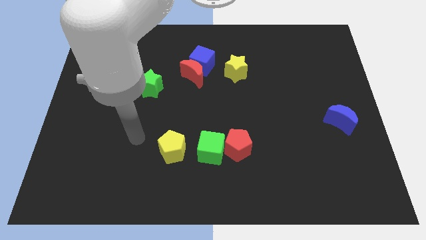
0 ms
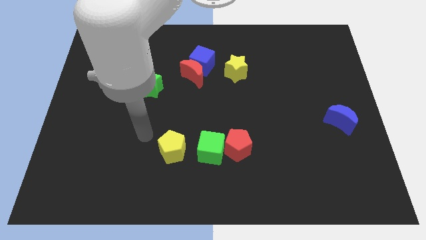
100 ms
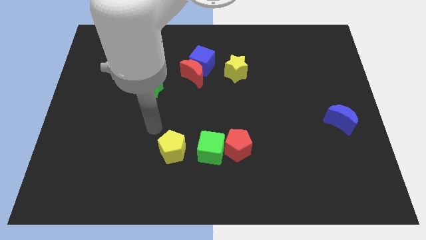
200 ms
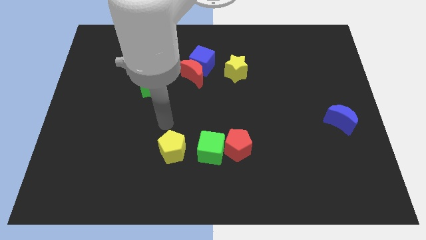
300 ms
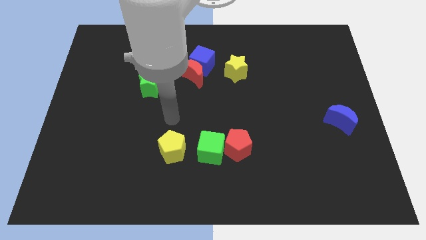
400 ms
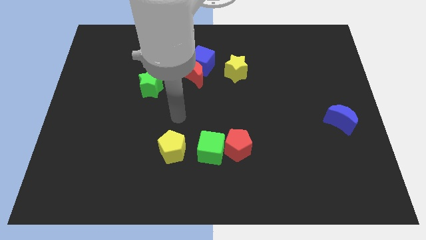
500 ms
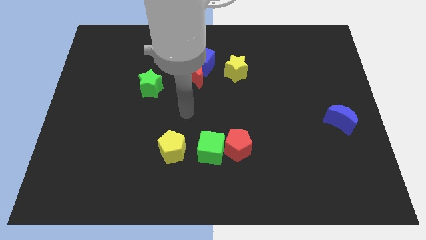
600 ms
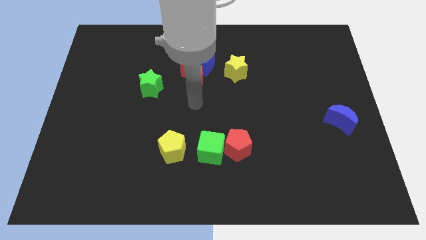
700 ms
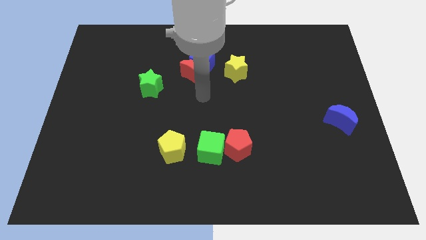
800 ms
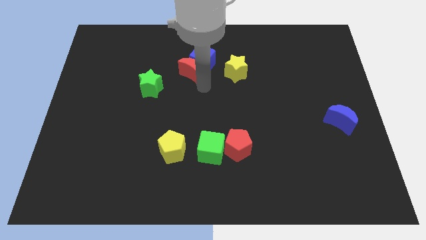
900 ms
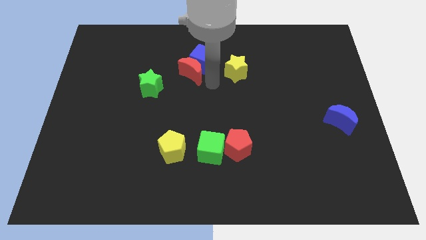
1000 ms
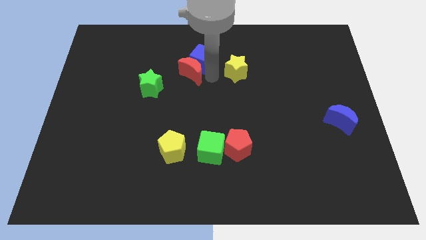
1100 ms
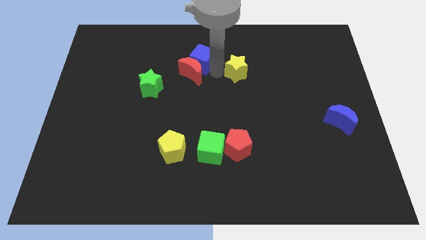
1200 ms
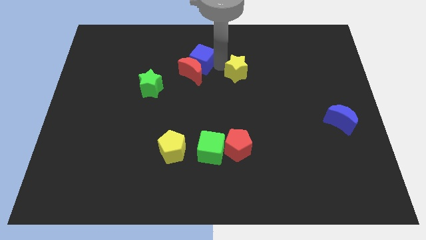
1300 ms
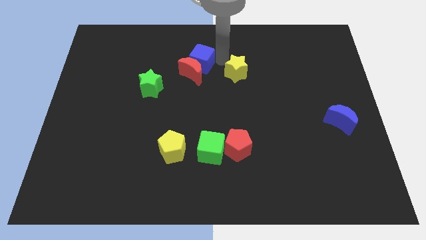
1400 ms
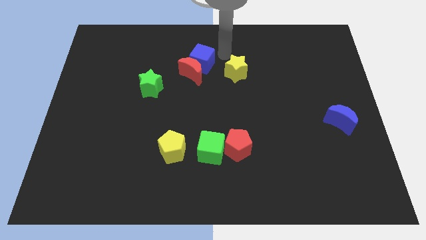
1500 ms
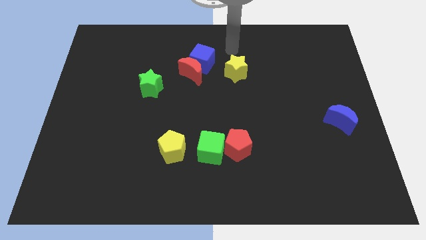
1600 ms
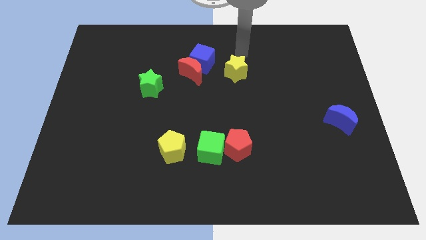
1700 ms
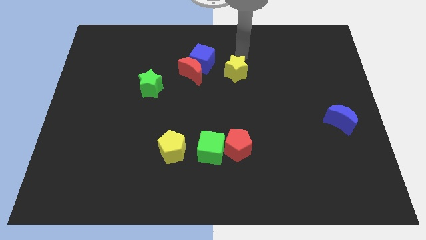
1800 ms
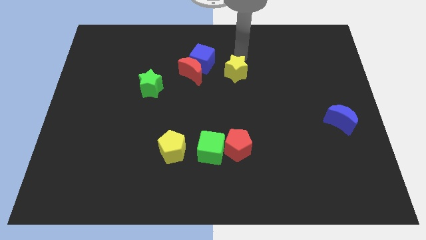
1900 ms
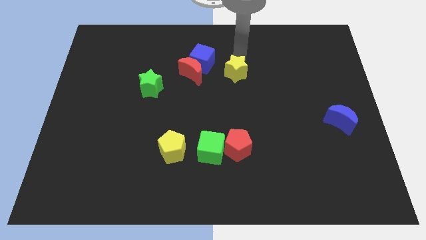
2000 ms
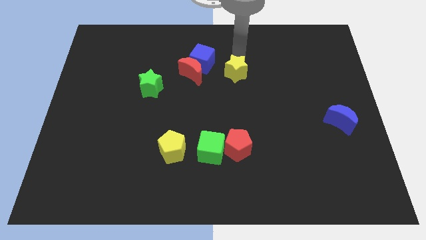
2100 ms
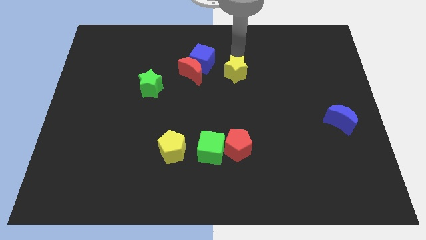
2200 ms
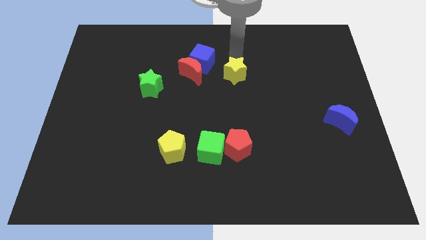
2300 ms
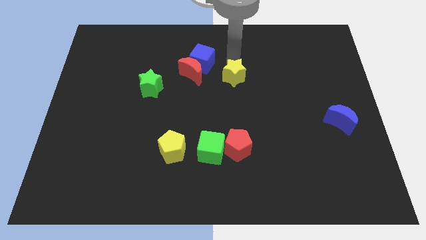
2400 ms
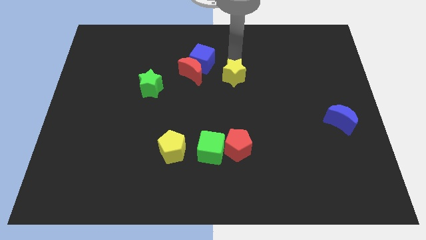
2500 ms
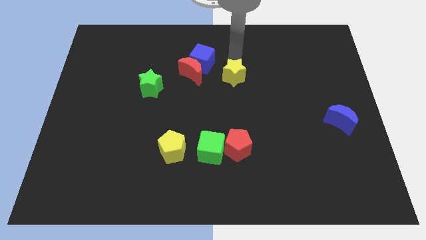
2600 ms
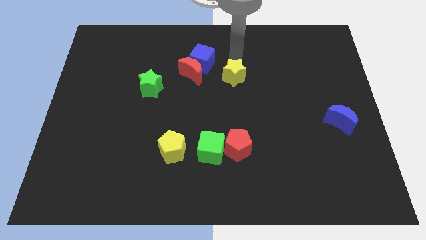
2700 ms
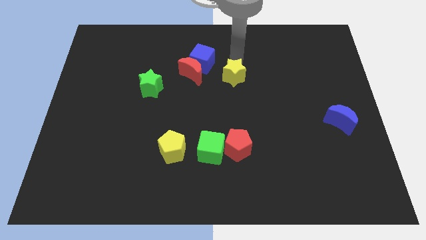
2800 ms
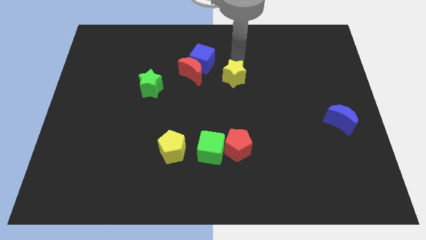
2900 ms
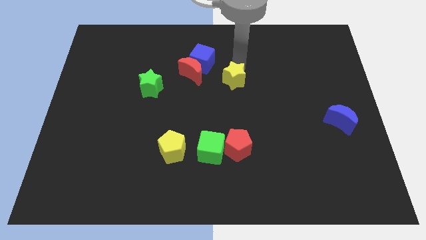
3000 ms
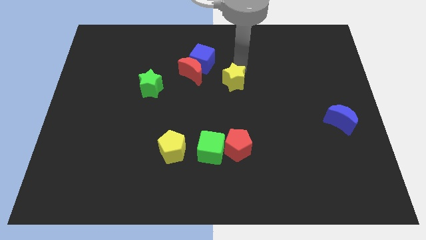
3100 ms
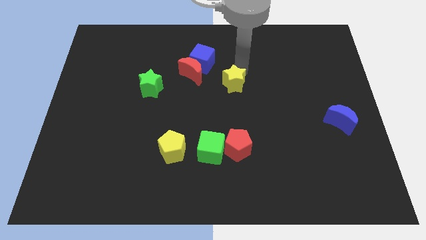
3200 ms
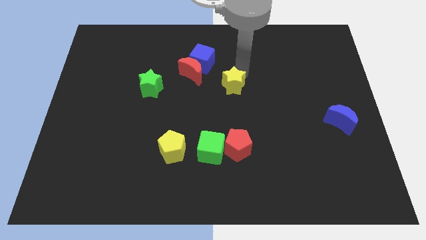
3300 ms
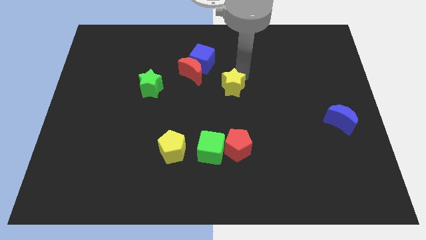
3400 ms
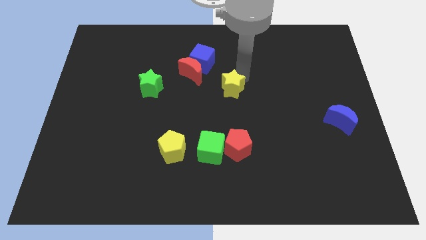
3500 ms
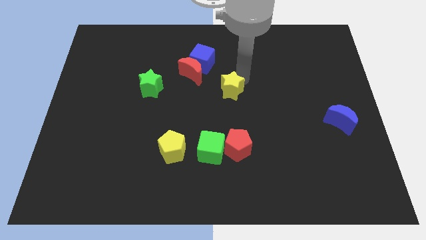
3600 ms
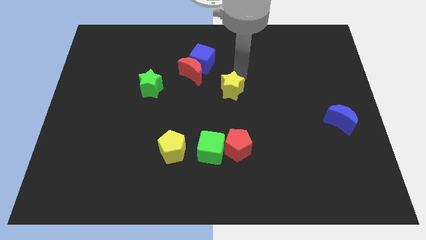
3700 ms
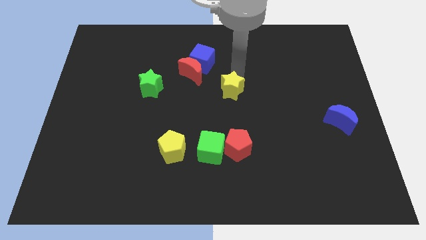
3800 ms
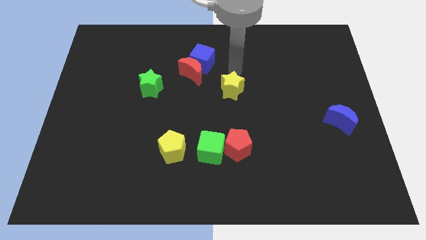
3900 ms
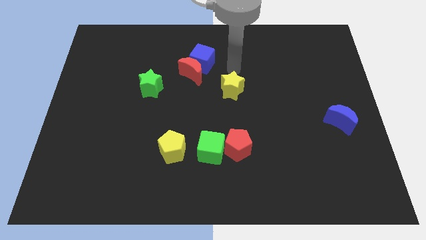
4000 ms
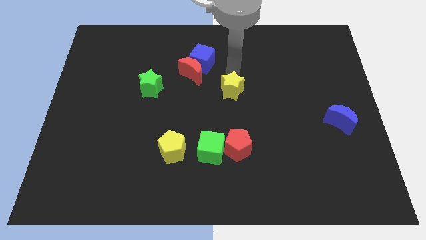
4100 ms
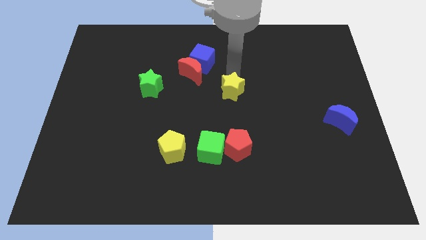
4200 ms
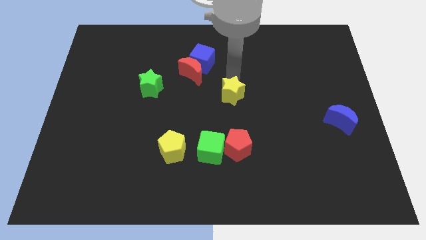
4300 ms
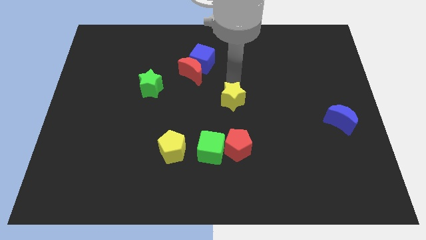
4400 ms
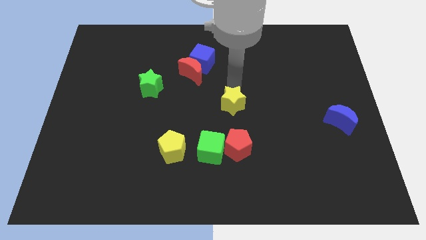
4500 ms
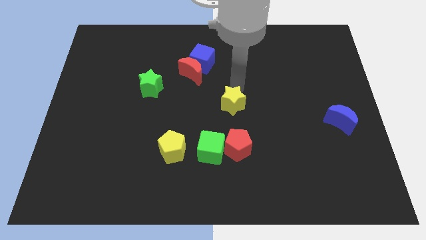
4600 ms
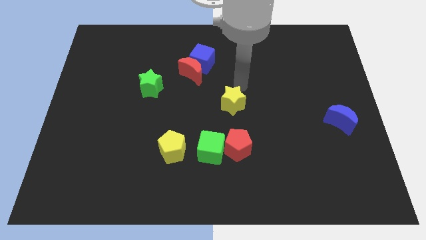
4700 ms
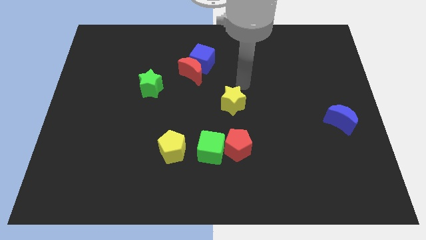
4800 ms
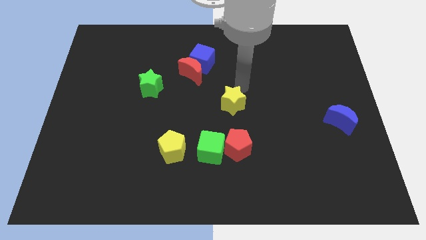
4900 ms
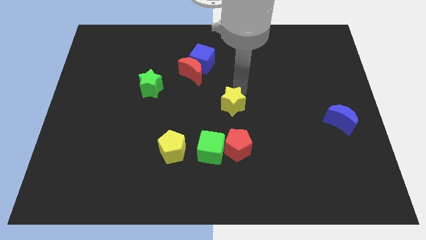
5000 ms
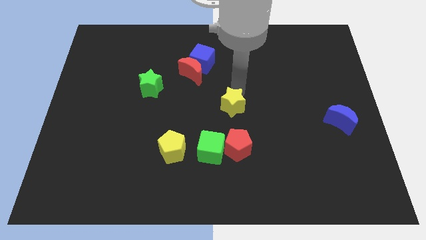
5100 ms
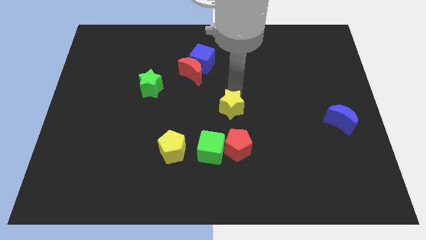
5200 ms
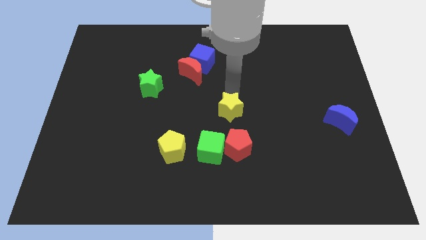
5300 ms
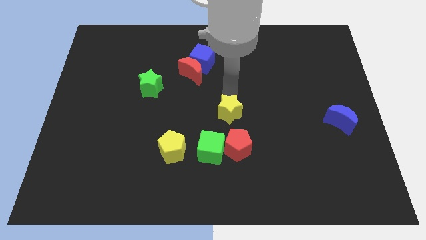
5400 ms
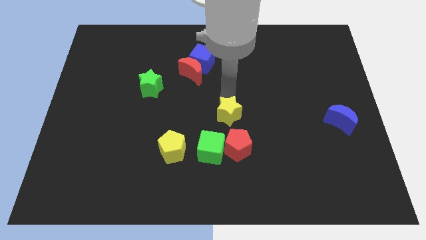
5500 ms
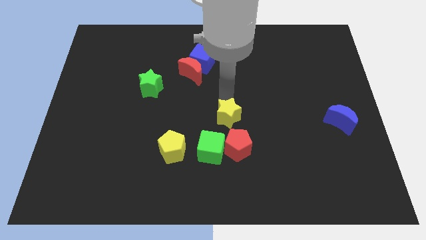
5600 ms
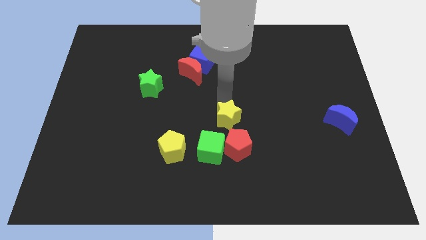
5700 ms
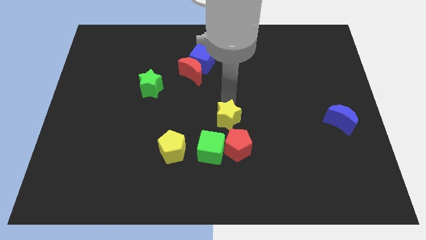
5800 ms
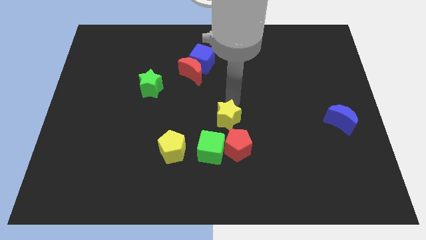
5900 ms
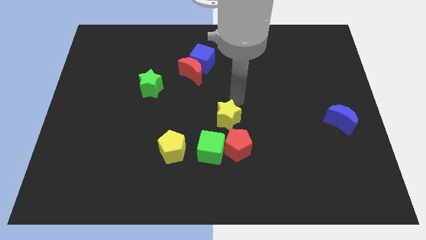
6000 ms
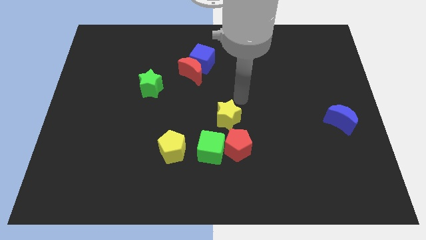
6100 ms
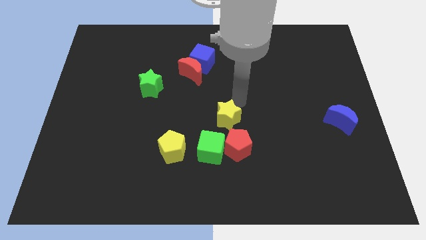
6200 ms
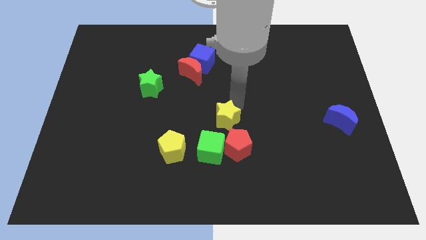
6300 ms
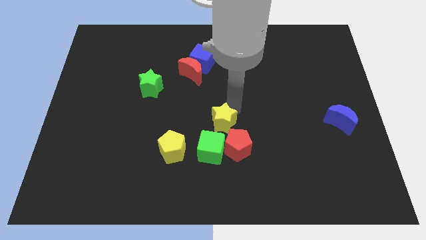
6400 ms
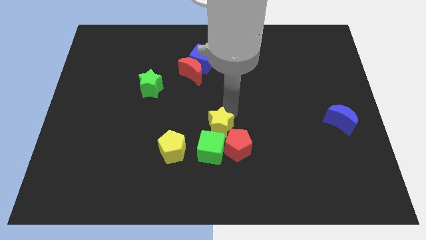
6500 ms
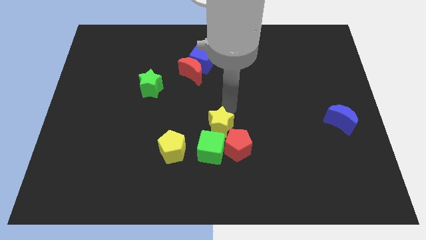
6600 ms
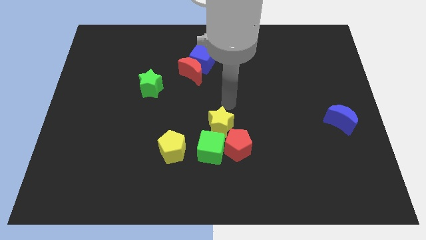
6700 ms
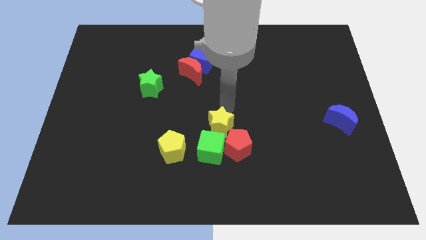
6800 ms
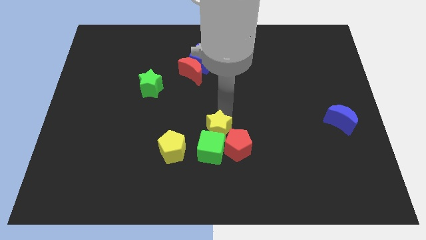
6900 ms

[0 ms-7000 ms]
move the yellow star to the green cube
